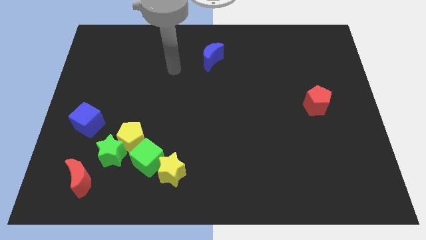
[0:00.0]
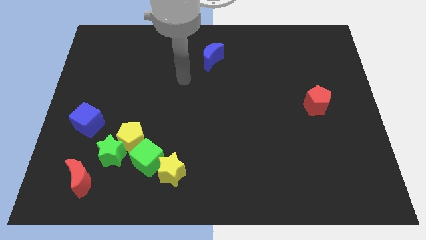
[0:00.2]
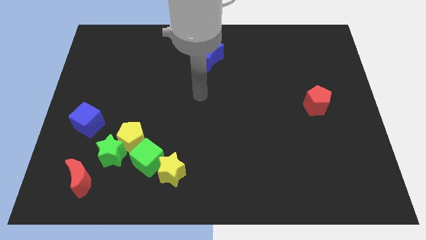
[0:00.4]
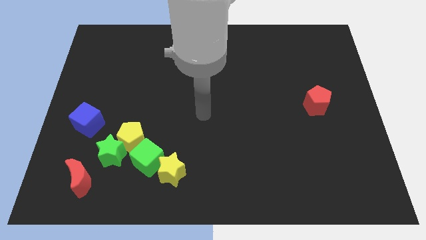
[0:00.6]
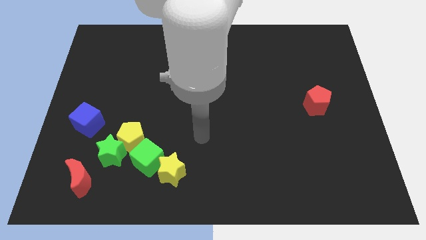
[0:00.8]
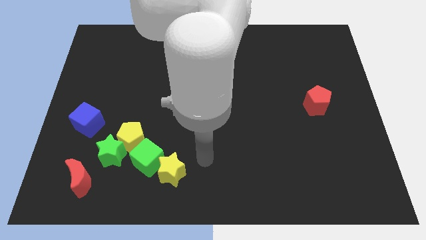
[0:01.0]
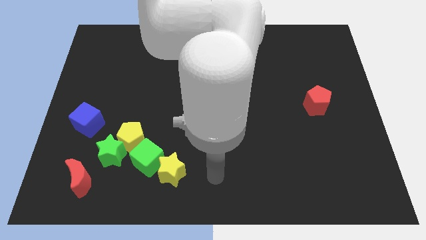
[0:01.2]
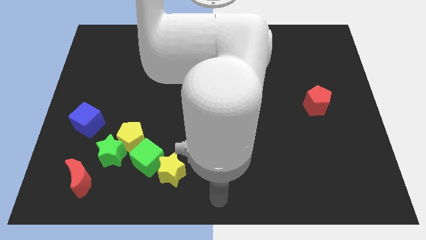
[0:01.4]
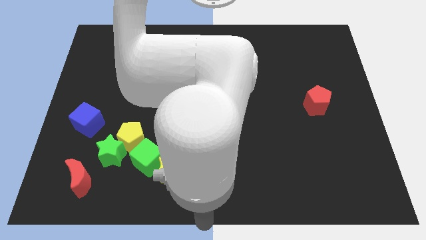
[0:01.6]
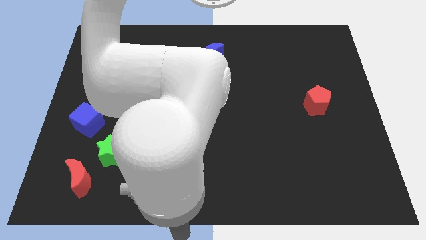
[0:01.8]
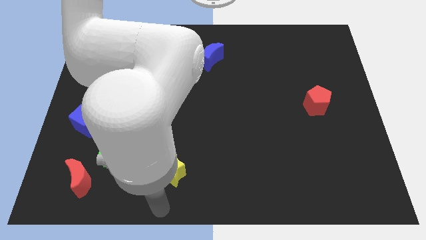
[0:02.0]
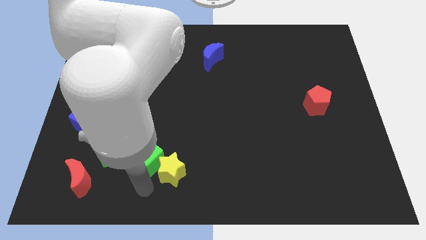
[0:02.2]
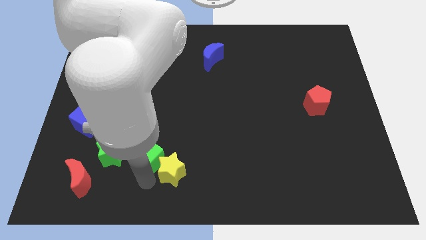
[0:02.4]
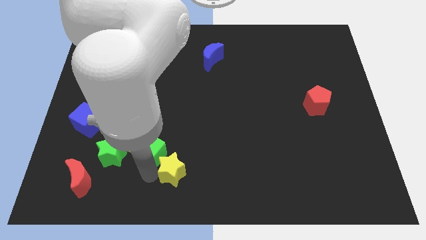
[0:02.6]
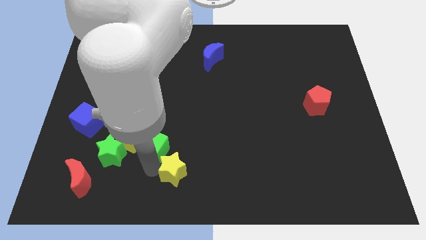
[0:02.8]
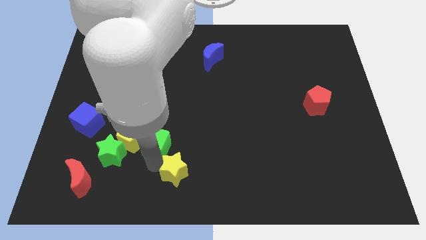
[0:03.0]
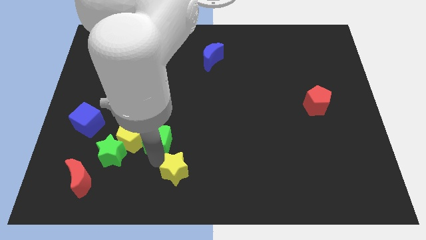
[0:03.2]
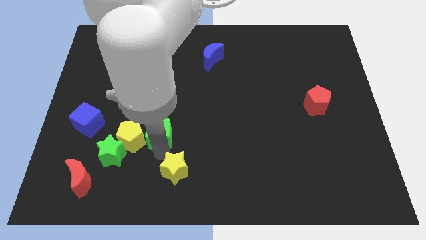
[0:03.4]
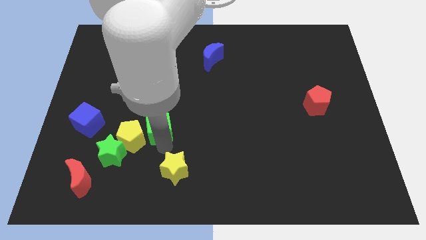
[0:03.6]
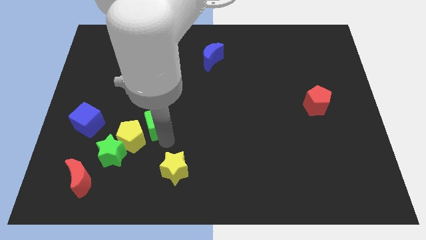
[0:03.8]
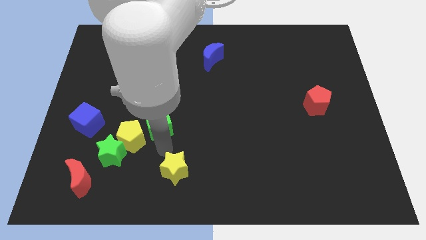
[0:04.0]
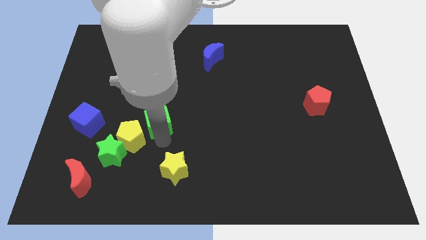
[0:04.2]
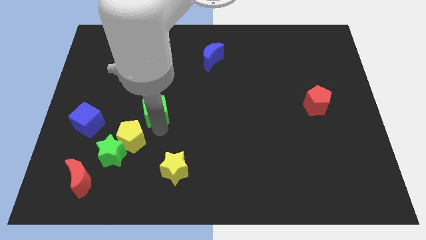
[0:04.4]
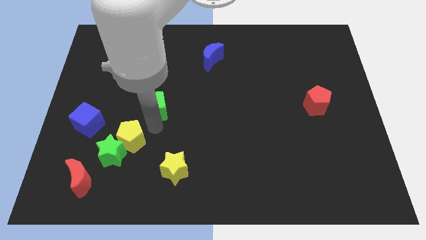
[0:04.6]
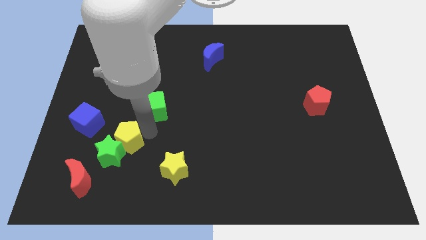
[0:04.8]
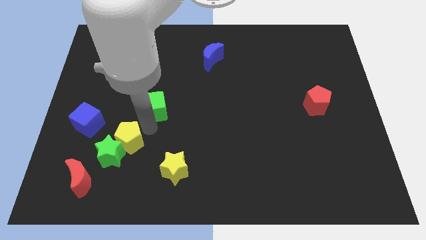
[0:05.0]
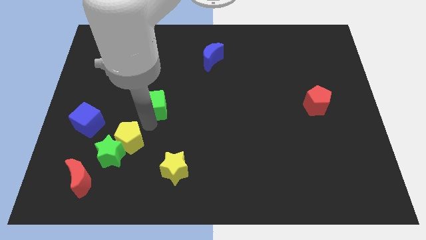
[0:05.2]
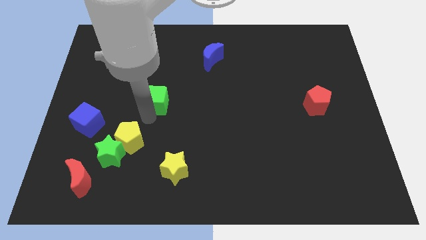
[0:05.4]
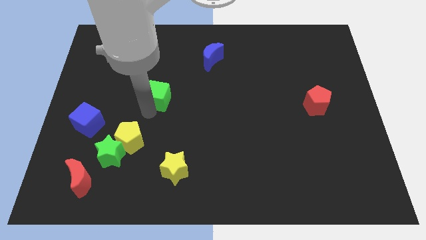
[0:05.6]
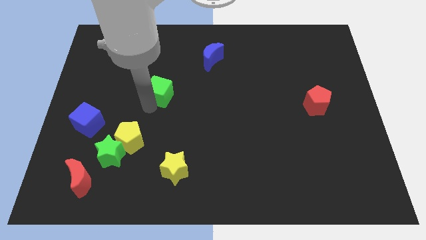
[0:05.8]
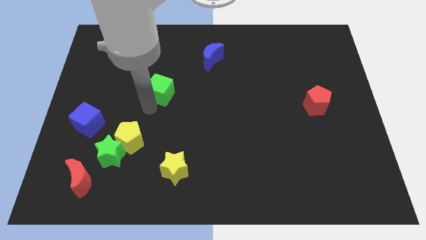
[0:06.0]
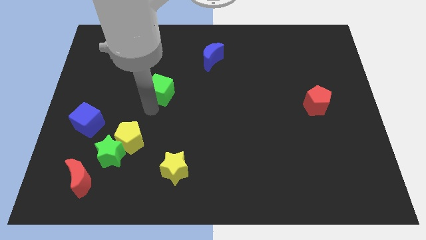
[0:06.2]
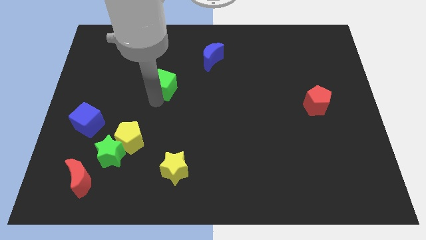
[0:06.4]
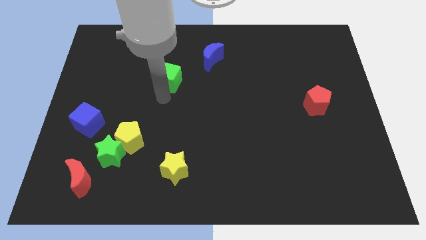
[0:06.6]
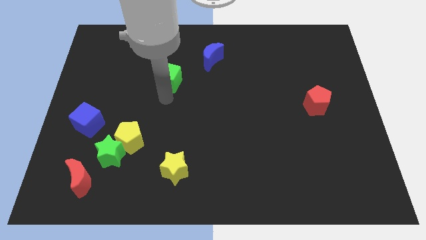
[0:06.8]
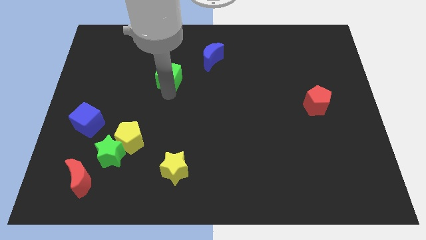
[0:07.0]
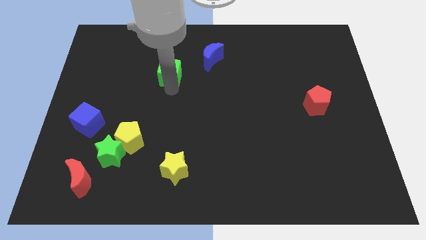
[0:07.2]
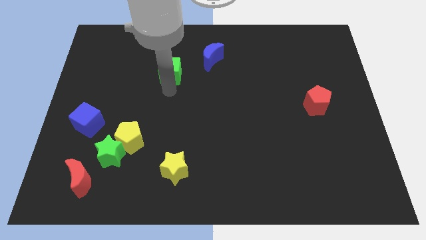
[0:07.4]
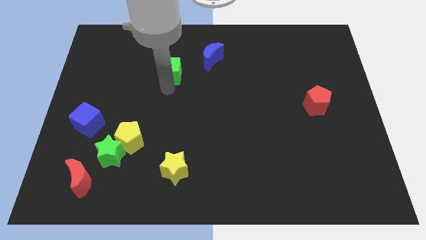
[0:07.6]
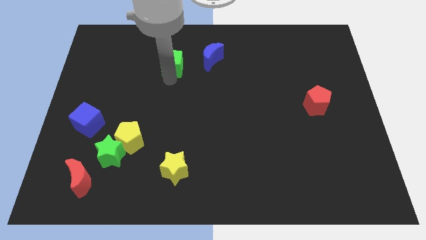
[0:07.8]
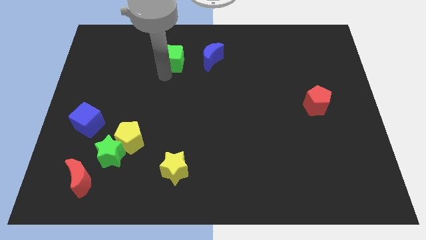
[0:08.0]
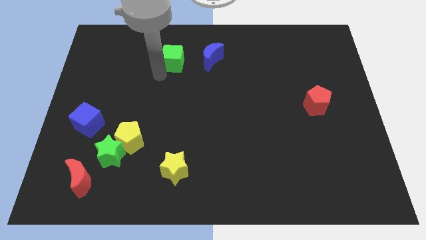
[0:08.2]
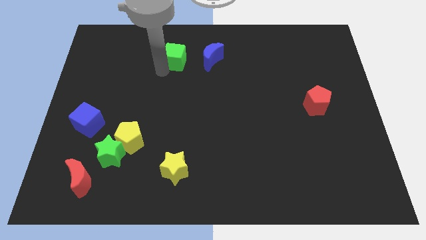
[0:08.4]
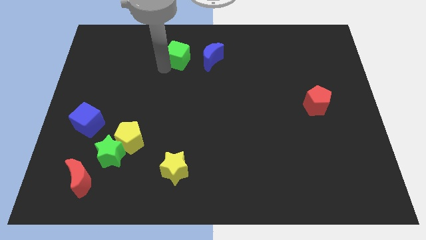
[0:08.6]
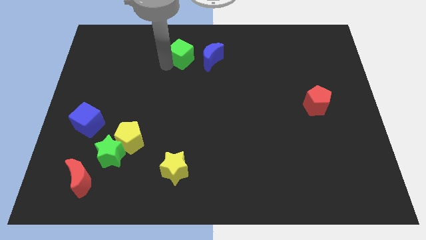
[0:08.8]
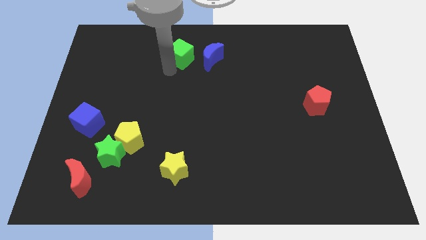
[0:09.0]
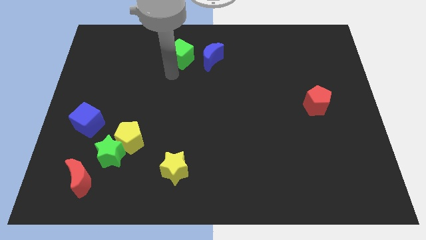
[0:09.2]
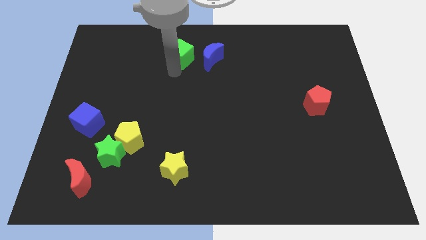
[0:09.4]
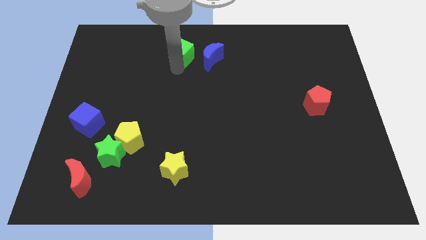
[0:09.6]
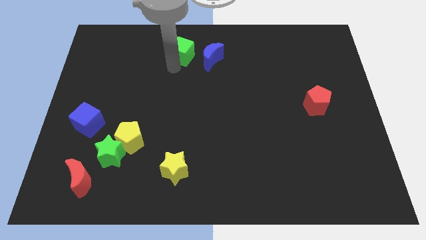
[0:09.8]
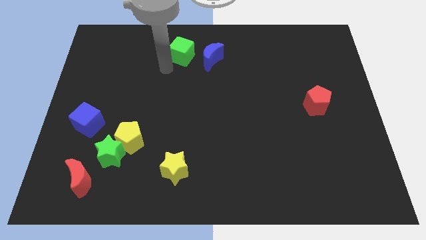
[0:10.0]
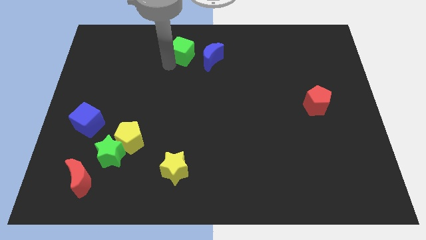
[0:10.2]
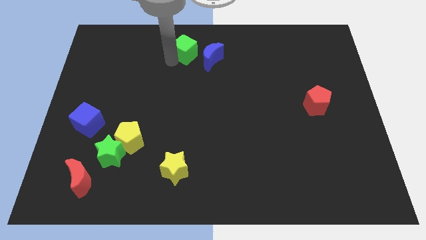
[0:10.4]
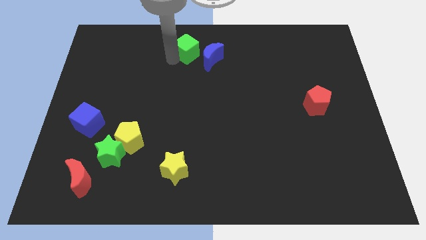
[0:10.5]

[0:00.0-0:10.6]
slide the green cube to the top side

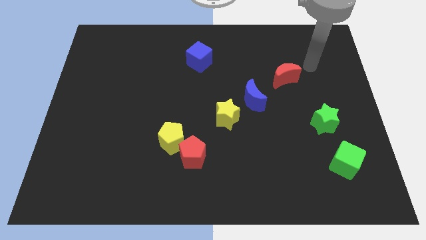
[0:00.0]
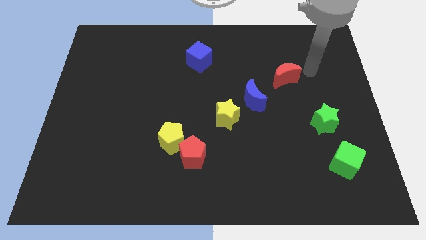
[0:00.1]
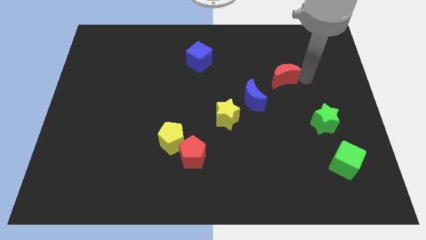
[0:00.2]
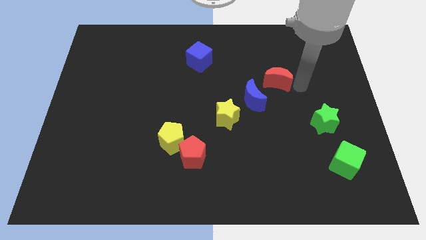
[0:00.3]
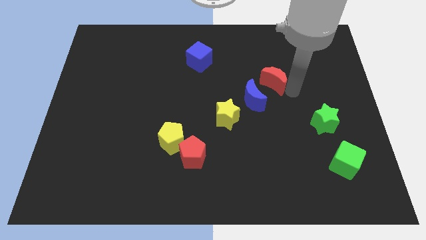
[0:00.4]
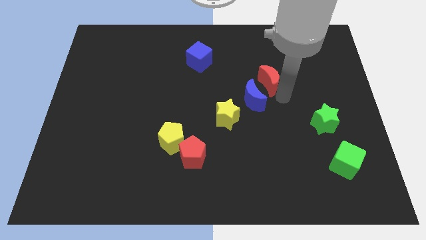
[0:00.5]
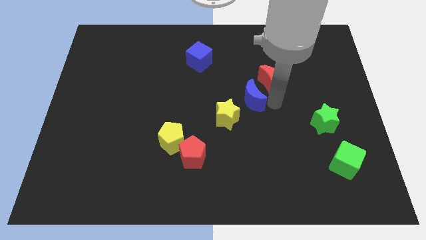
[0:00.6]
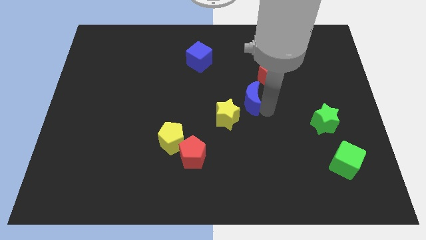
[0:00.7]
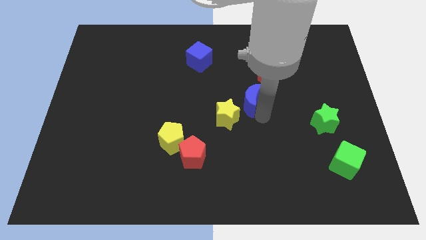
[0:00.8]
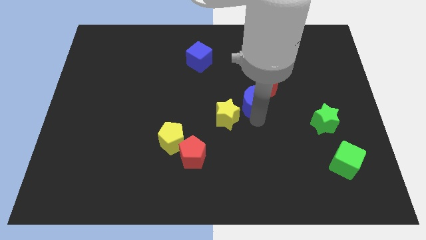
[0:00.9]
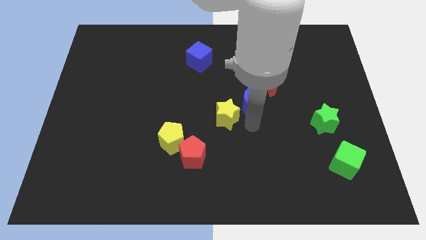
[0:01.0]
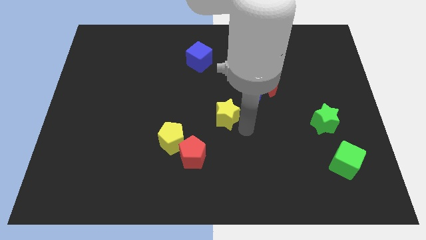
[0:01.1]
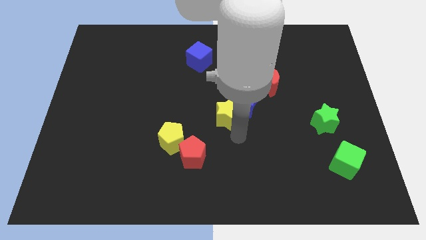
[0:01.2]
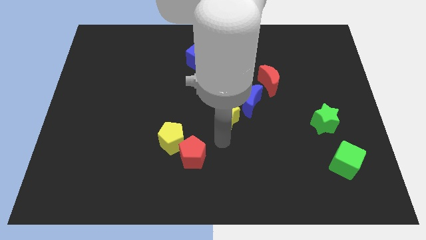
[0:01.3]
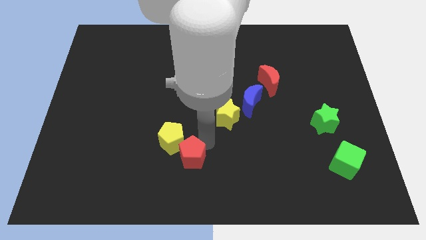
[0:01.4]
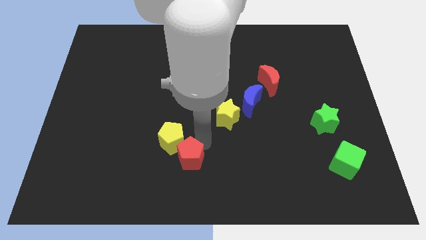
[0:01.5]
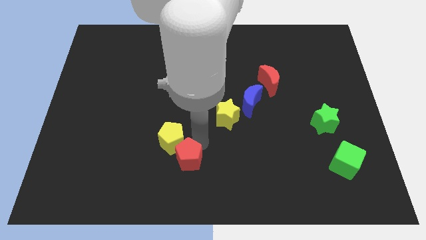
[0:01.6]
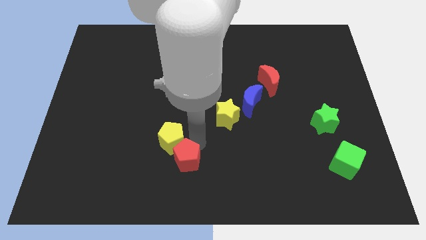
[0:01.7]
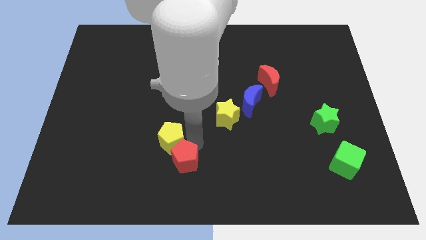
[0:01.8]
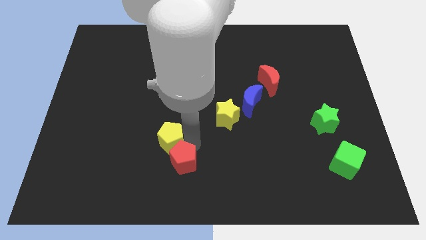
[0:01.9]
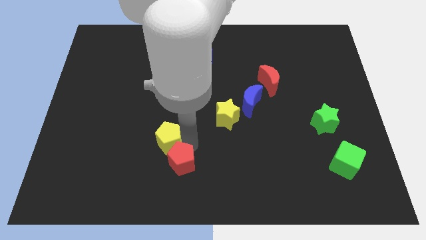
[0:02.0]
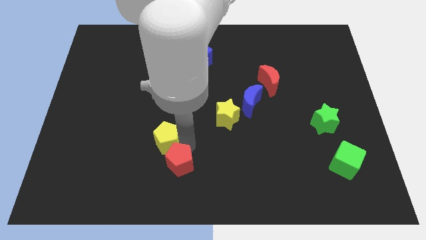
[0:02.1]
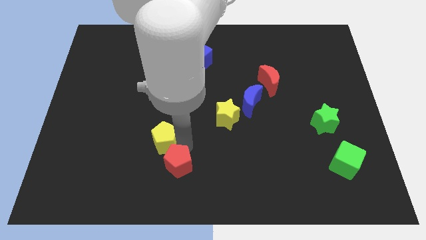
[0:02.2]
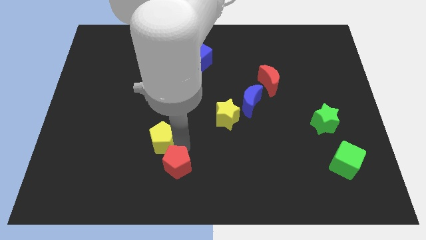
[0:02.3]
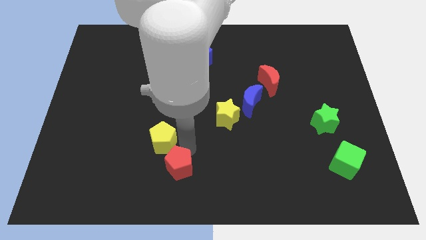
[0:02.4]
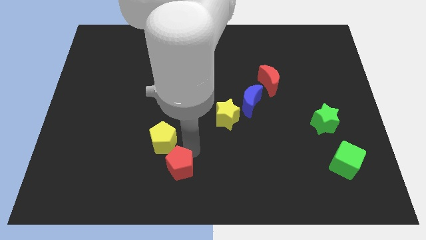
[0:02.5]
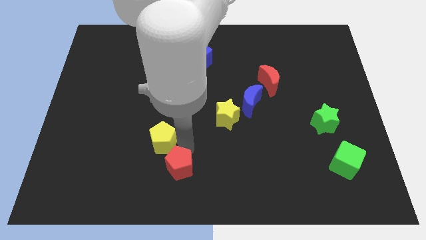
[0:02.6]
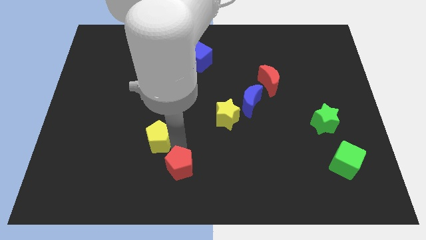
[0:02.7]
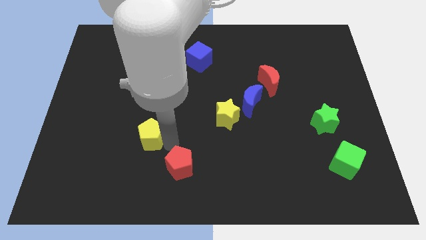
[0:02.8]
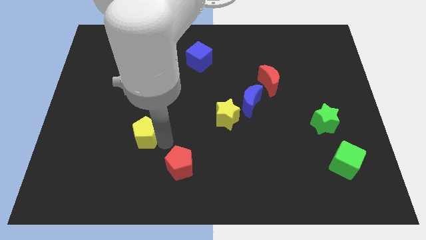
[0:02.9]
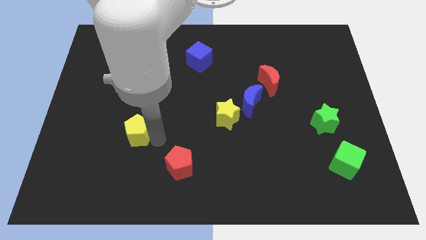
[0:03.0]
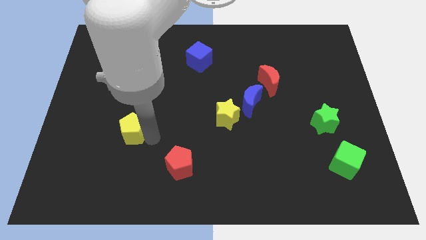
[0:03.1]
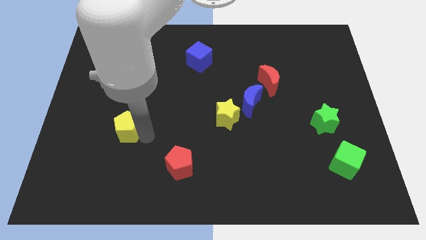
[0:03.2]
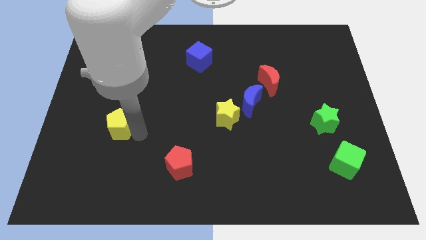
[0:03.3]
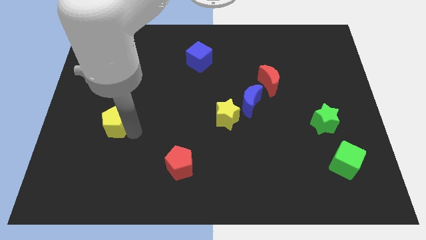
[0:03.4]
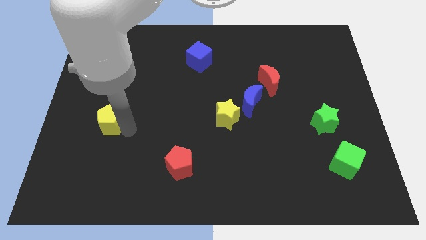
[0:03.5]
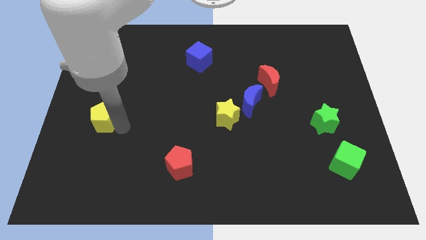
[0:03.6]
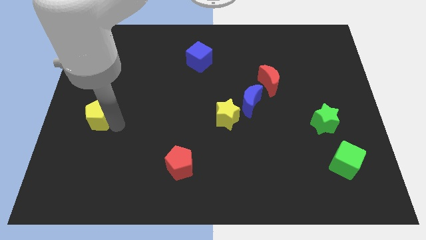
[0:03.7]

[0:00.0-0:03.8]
push the yellow pentagon to the left side of the board
